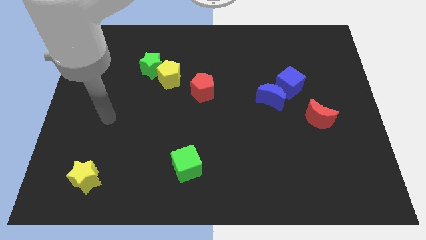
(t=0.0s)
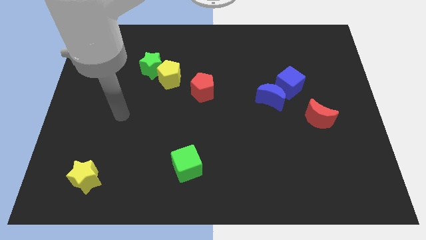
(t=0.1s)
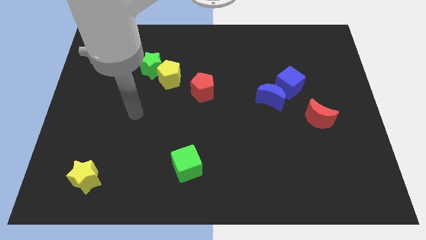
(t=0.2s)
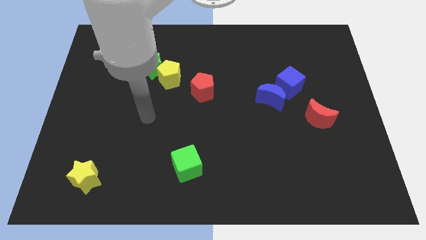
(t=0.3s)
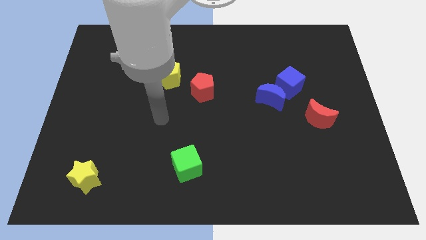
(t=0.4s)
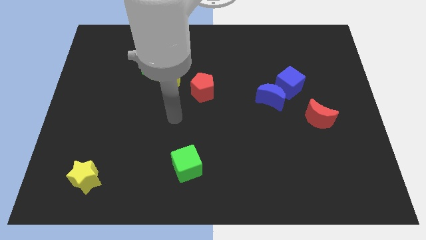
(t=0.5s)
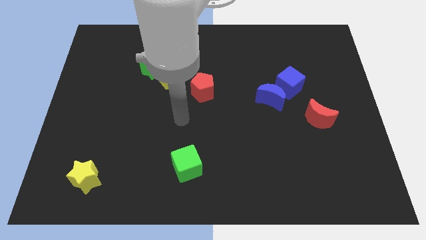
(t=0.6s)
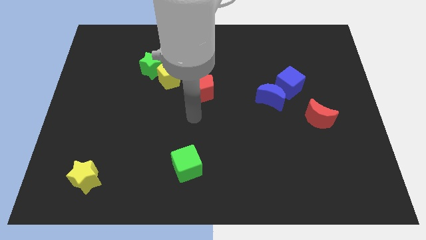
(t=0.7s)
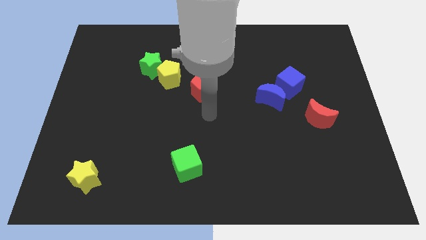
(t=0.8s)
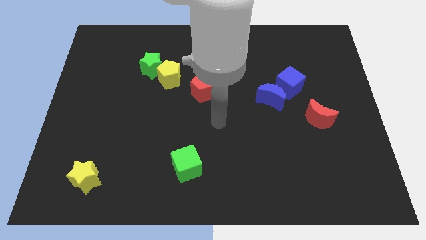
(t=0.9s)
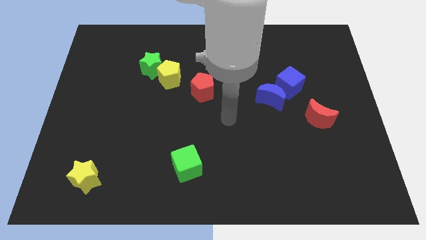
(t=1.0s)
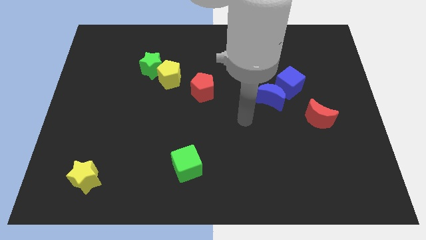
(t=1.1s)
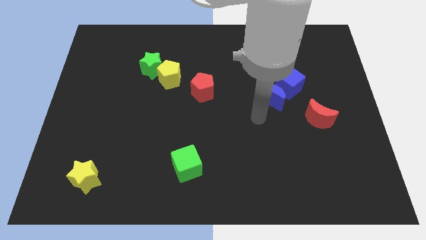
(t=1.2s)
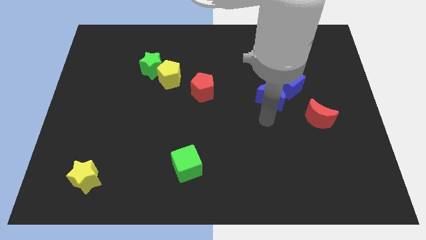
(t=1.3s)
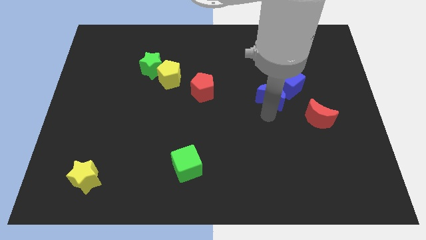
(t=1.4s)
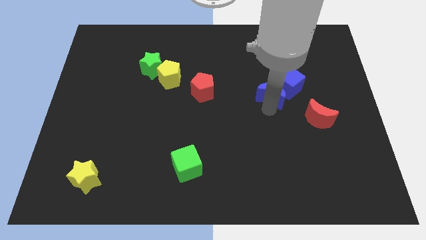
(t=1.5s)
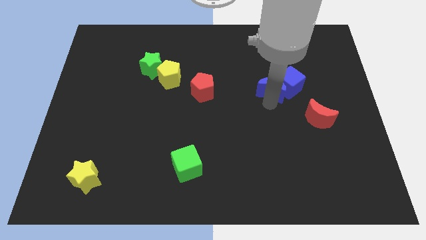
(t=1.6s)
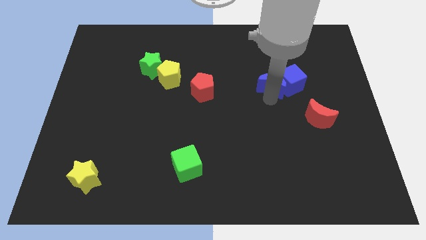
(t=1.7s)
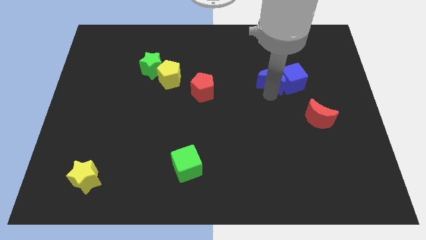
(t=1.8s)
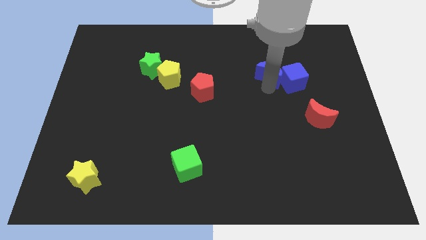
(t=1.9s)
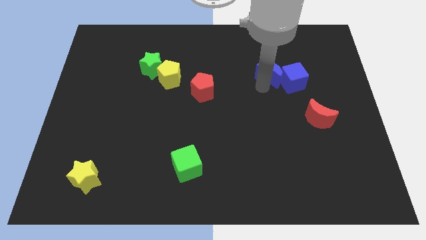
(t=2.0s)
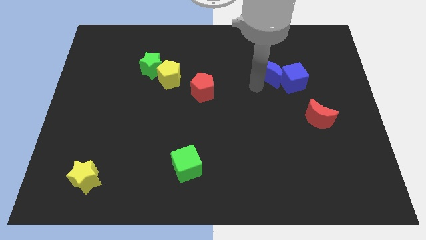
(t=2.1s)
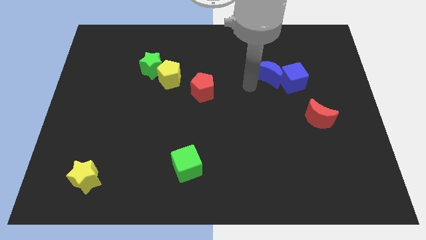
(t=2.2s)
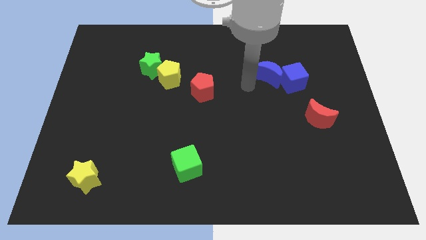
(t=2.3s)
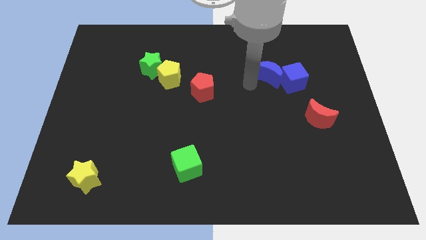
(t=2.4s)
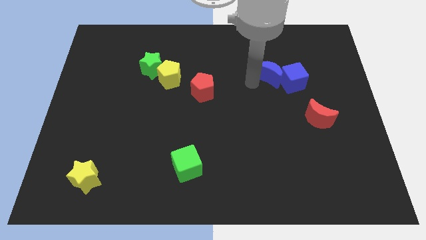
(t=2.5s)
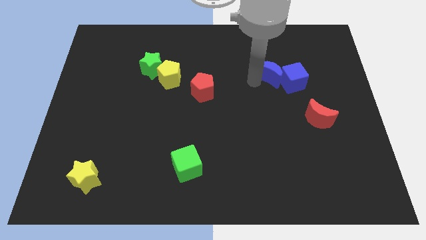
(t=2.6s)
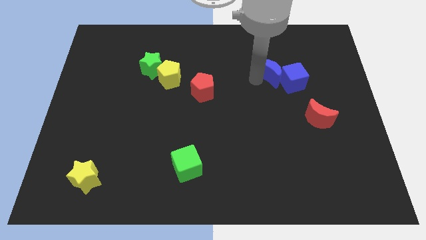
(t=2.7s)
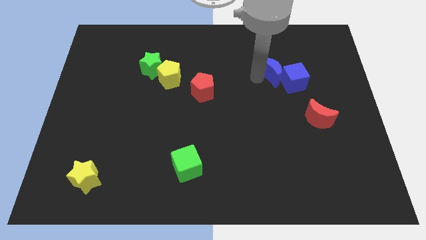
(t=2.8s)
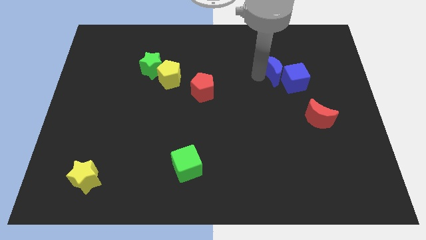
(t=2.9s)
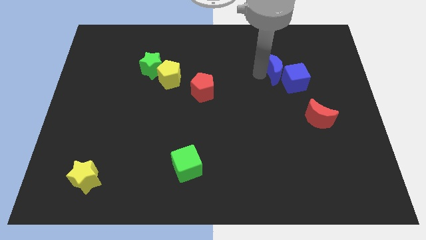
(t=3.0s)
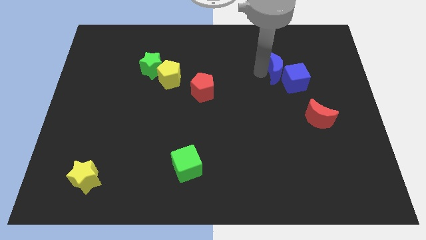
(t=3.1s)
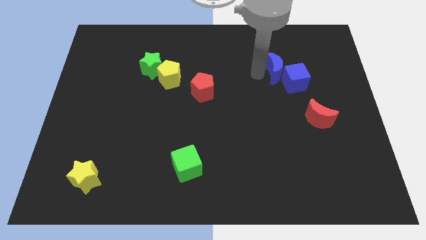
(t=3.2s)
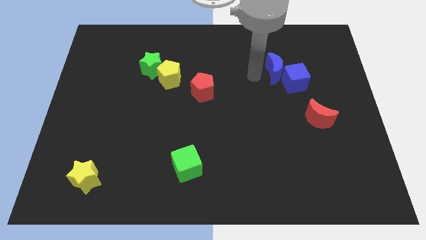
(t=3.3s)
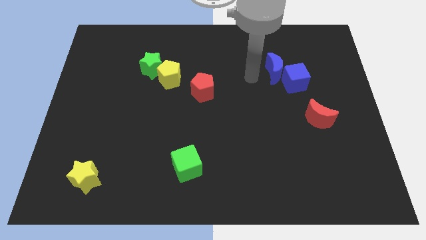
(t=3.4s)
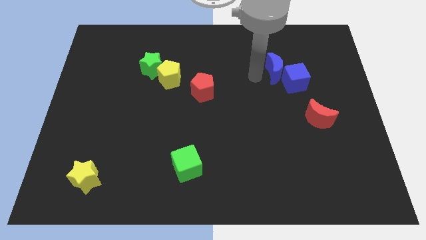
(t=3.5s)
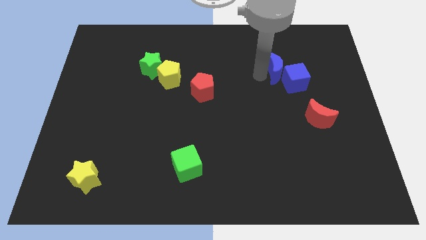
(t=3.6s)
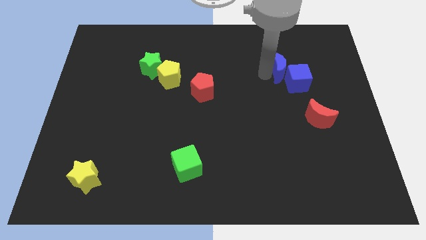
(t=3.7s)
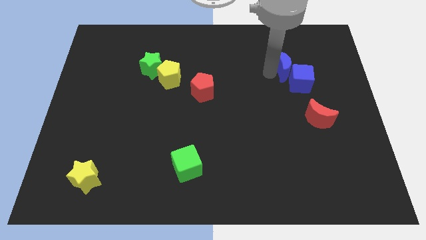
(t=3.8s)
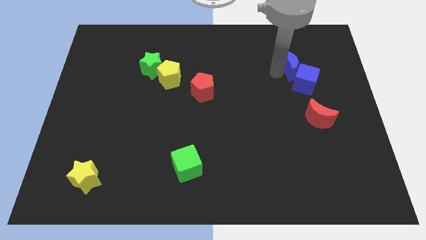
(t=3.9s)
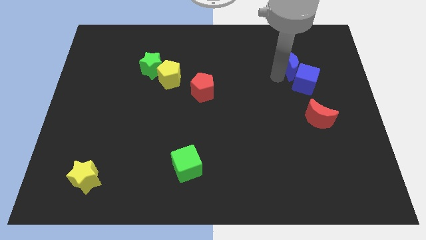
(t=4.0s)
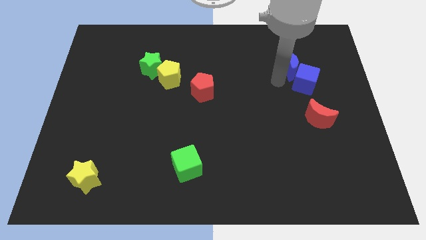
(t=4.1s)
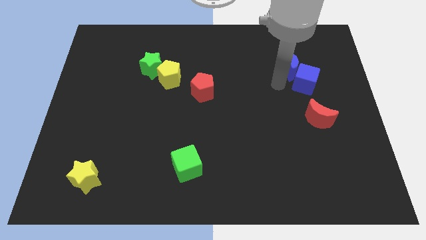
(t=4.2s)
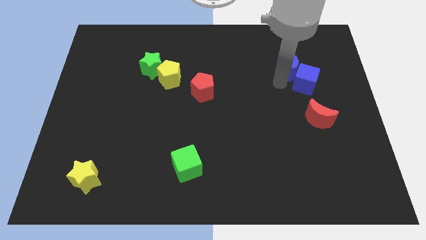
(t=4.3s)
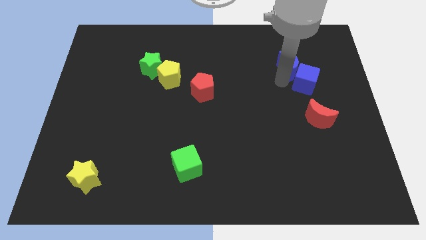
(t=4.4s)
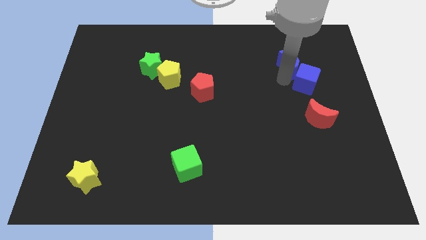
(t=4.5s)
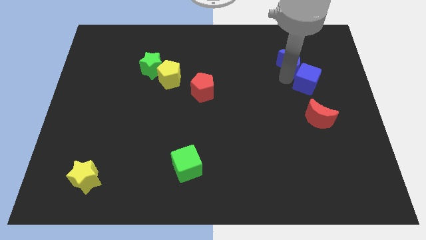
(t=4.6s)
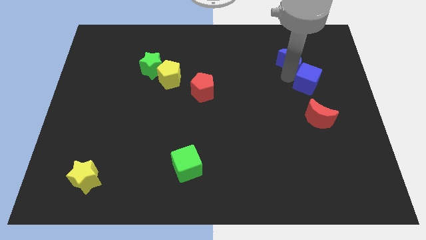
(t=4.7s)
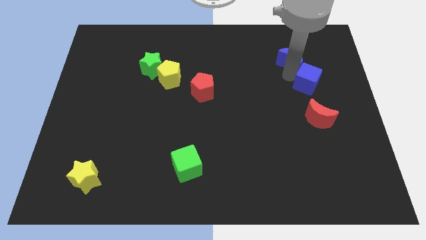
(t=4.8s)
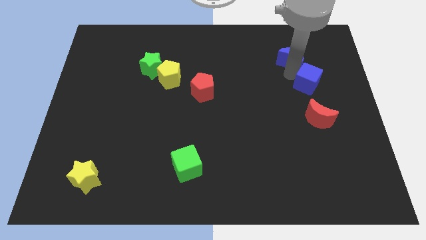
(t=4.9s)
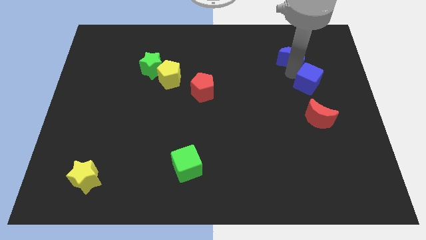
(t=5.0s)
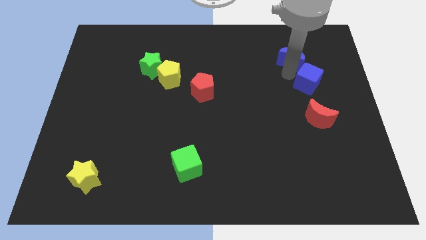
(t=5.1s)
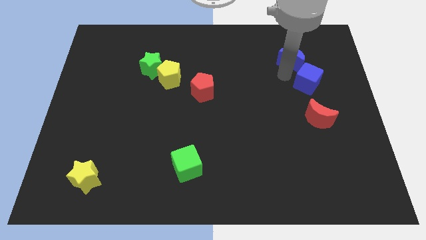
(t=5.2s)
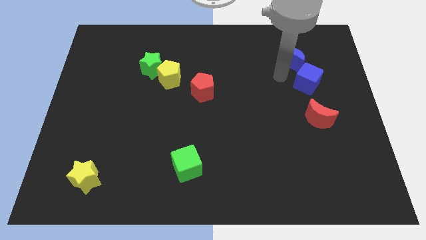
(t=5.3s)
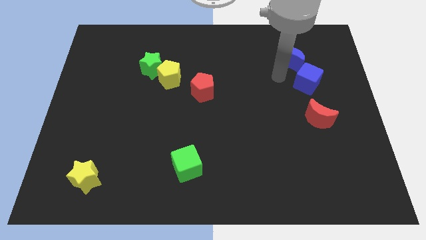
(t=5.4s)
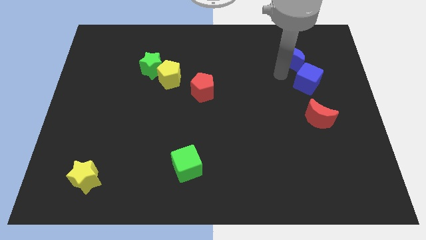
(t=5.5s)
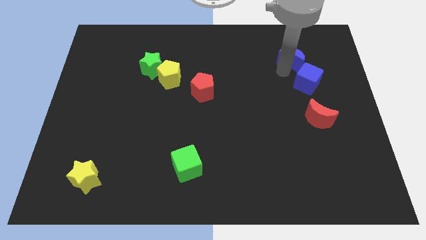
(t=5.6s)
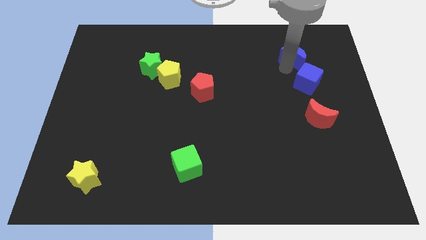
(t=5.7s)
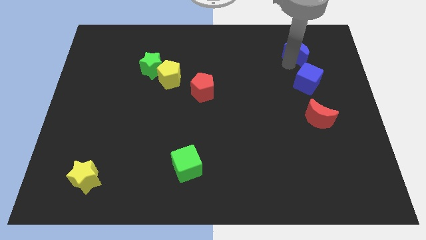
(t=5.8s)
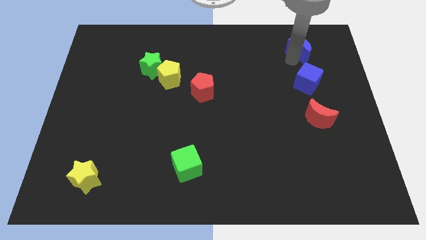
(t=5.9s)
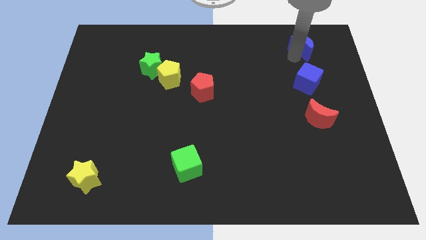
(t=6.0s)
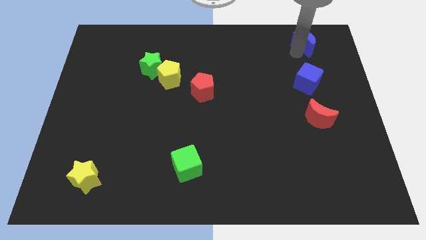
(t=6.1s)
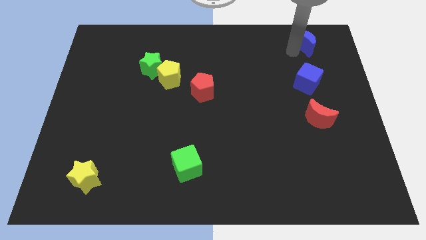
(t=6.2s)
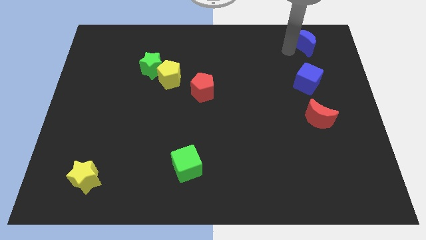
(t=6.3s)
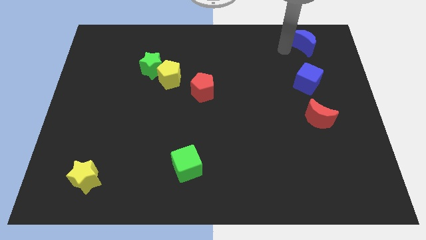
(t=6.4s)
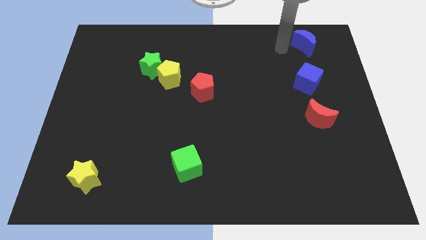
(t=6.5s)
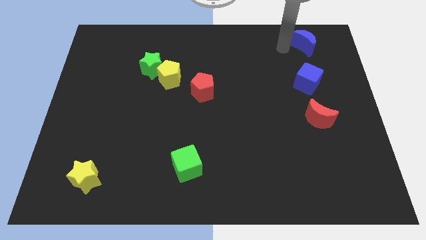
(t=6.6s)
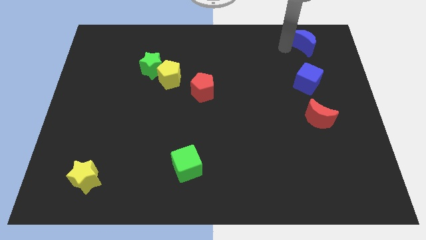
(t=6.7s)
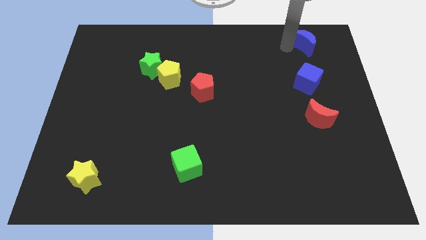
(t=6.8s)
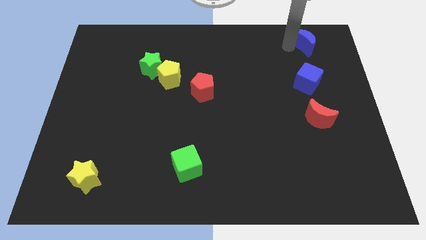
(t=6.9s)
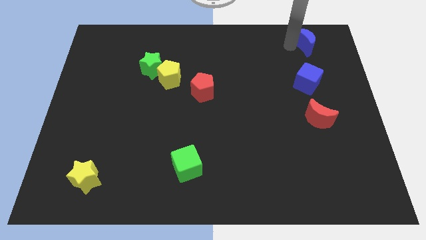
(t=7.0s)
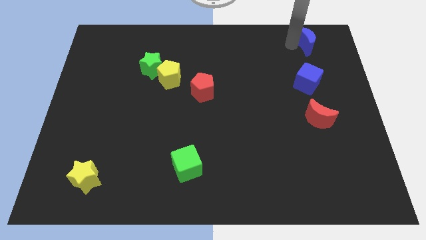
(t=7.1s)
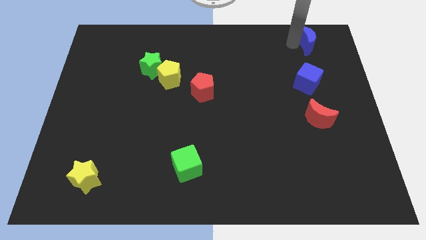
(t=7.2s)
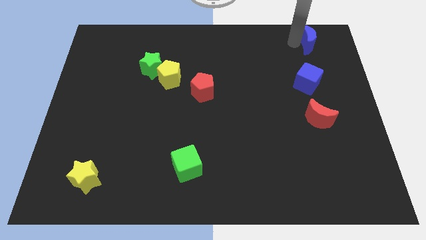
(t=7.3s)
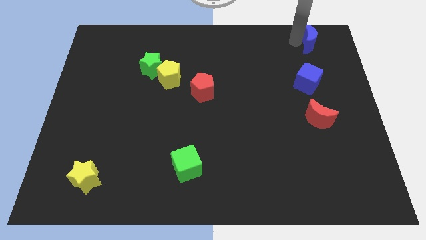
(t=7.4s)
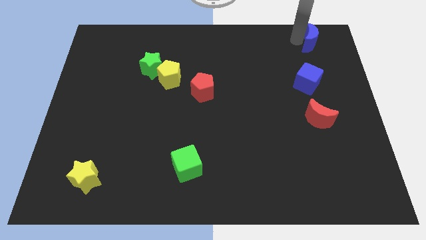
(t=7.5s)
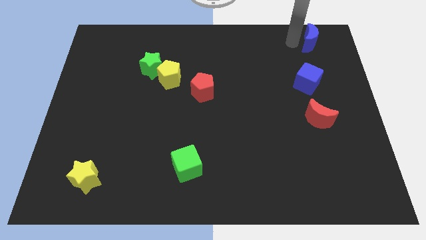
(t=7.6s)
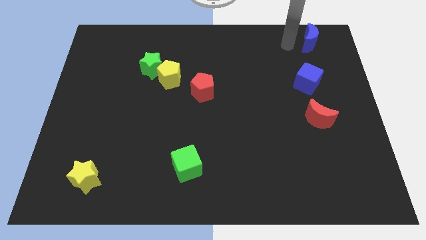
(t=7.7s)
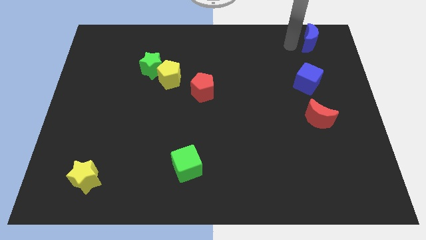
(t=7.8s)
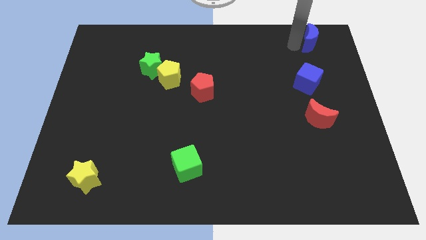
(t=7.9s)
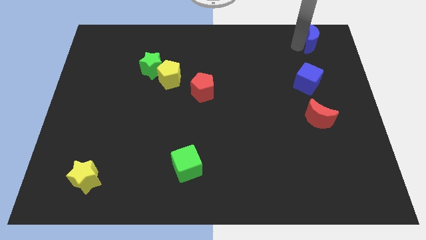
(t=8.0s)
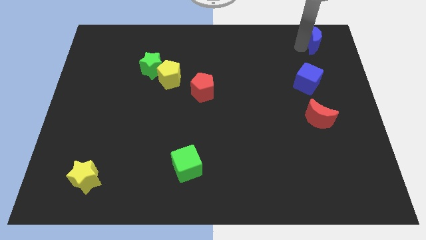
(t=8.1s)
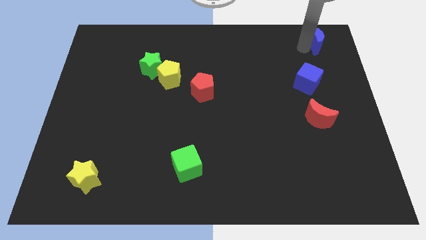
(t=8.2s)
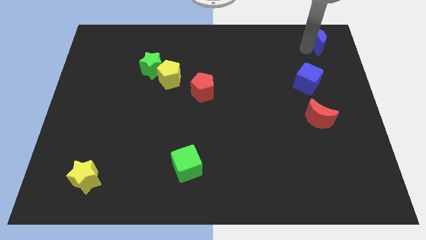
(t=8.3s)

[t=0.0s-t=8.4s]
push the blue moon to the top right
